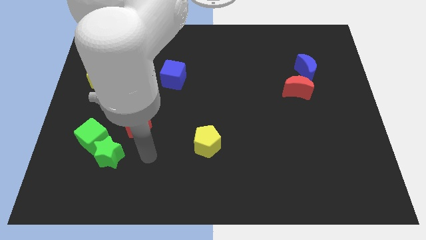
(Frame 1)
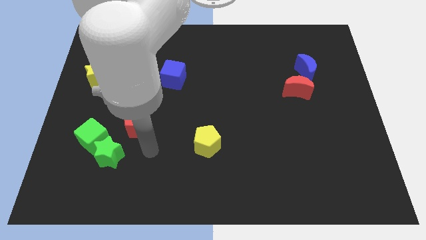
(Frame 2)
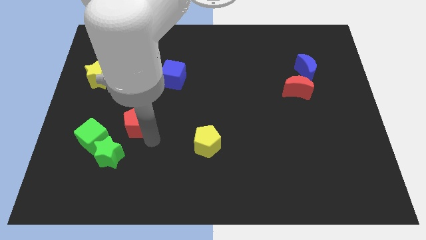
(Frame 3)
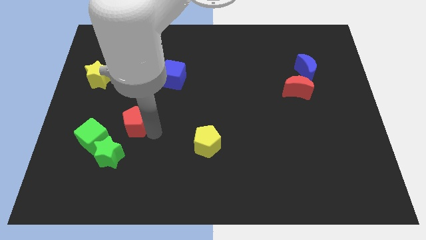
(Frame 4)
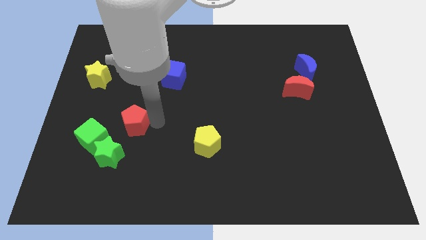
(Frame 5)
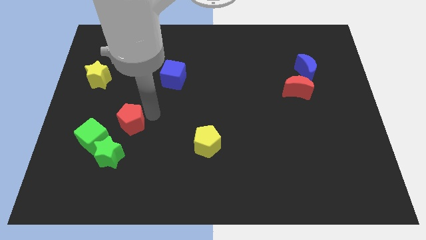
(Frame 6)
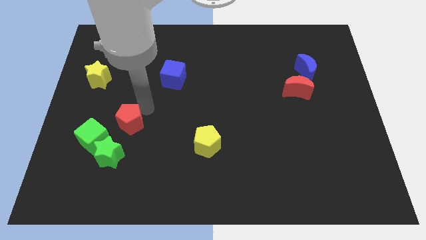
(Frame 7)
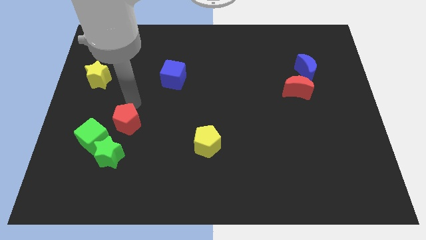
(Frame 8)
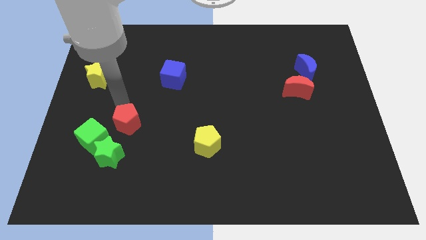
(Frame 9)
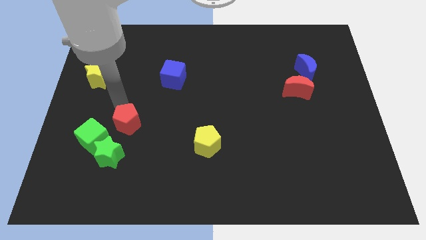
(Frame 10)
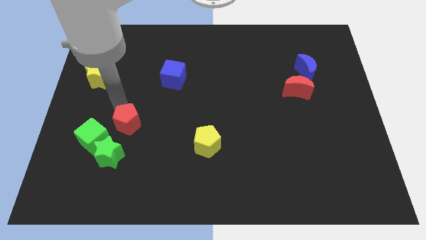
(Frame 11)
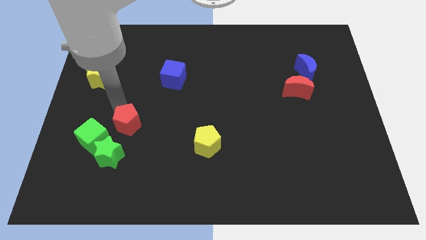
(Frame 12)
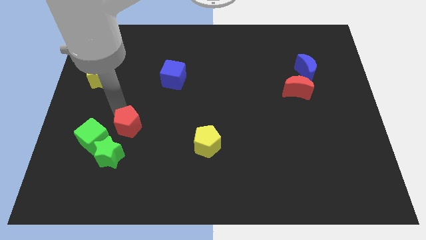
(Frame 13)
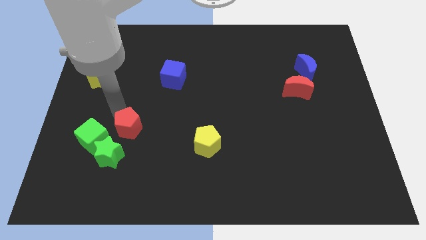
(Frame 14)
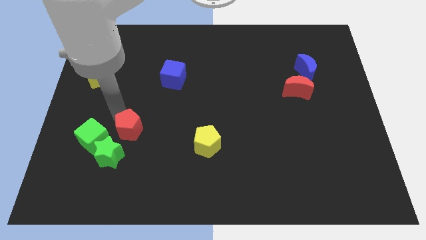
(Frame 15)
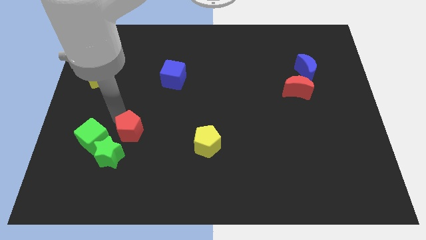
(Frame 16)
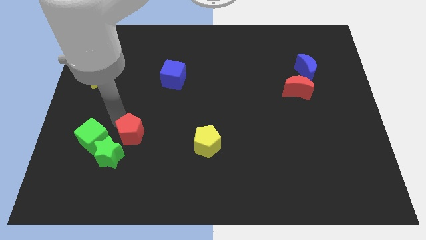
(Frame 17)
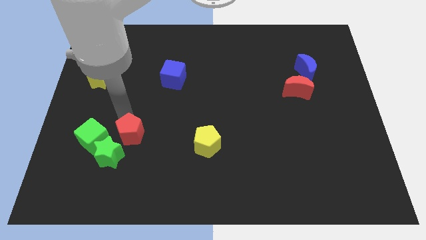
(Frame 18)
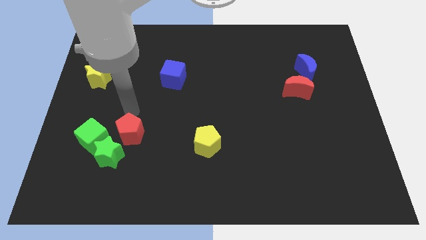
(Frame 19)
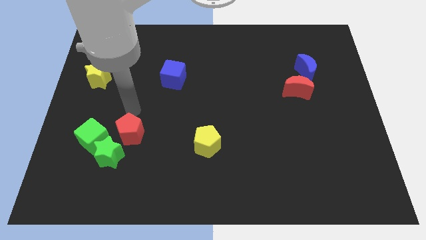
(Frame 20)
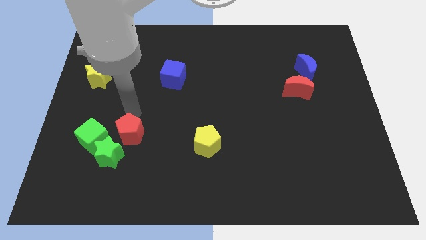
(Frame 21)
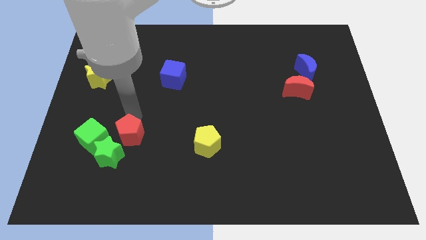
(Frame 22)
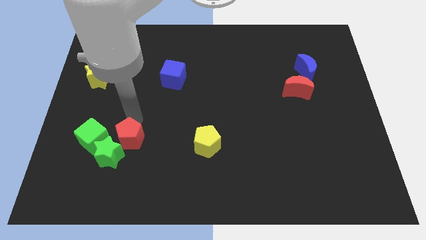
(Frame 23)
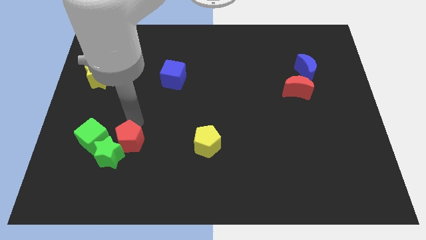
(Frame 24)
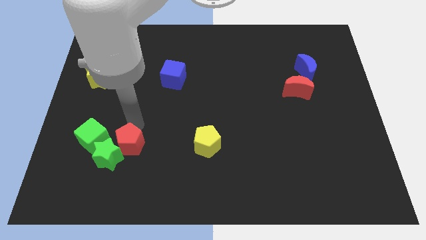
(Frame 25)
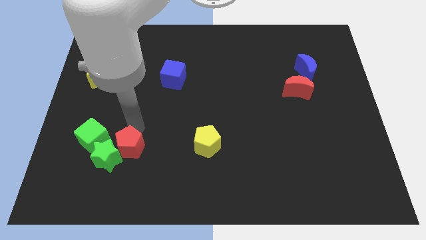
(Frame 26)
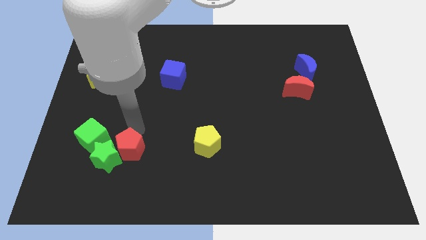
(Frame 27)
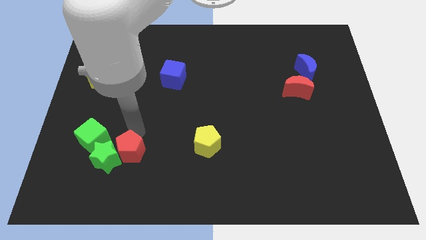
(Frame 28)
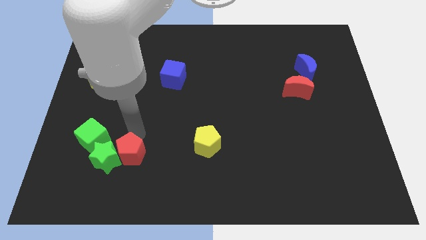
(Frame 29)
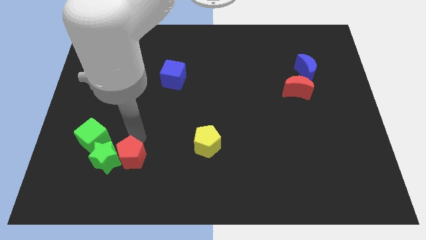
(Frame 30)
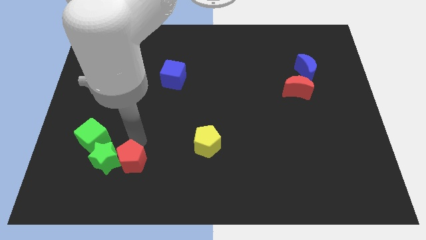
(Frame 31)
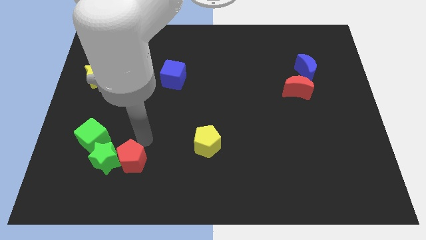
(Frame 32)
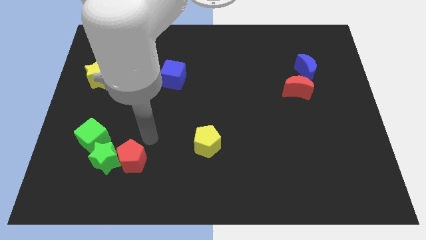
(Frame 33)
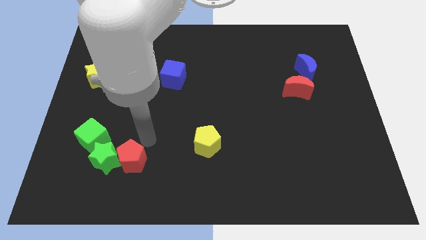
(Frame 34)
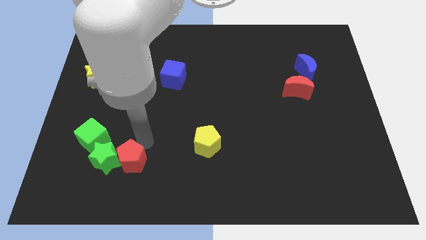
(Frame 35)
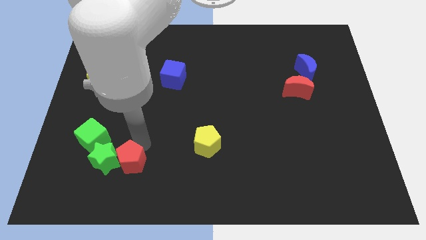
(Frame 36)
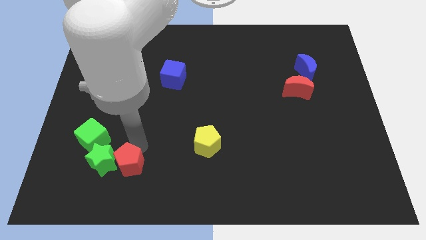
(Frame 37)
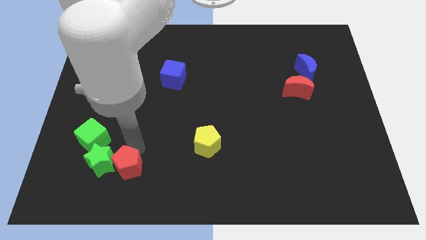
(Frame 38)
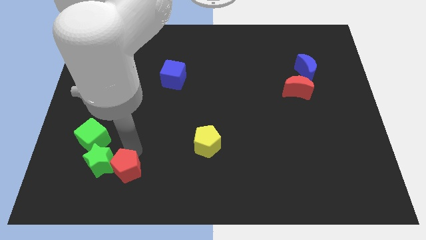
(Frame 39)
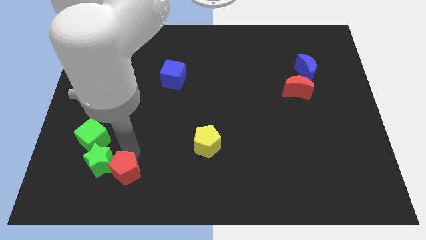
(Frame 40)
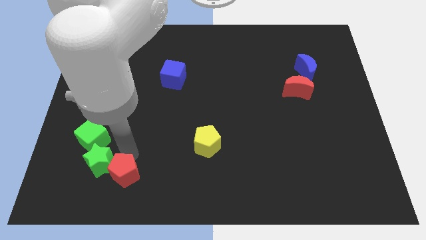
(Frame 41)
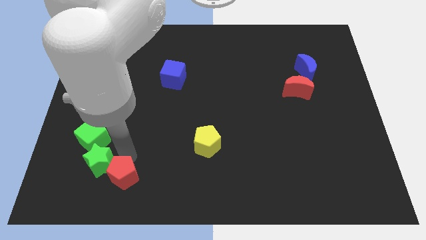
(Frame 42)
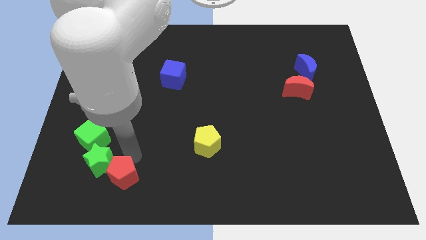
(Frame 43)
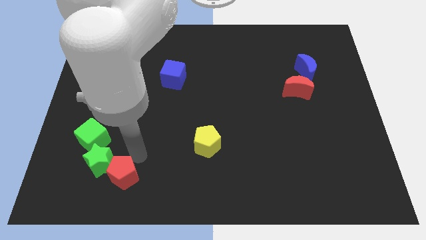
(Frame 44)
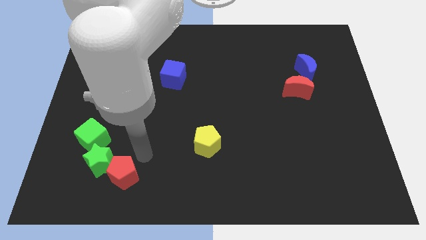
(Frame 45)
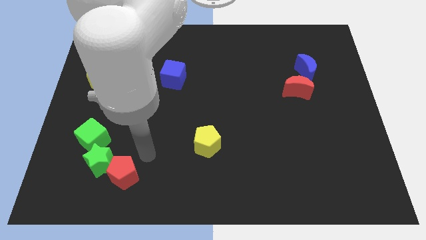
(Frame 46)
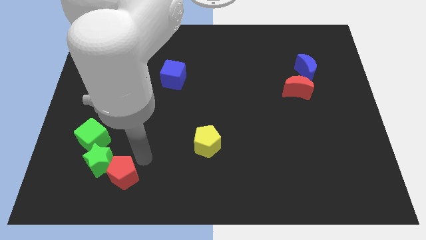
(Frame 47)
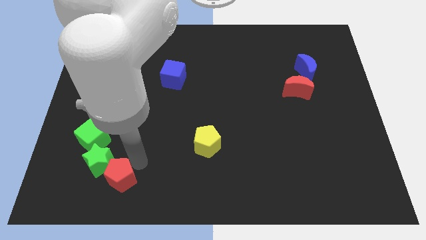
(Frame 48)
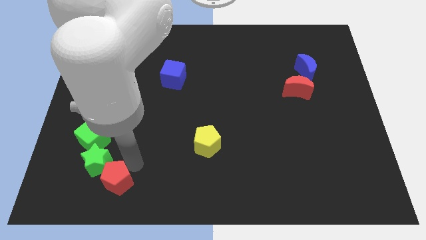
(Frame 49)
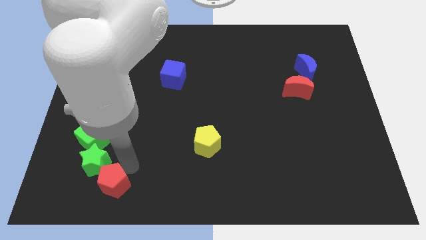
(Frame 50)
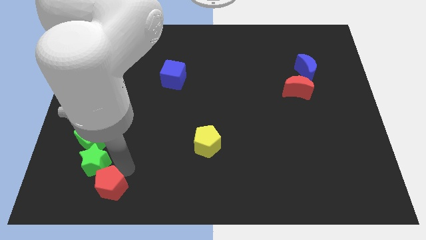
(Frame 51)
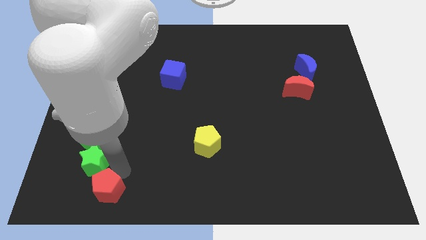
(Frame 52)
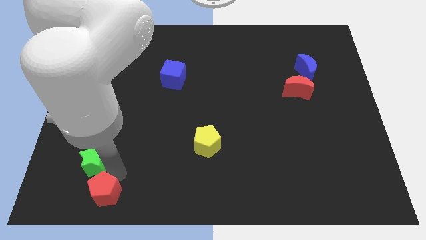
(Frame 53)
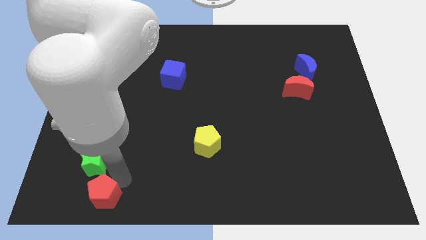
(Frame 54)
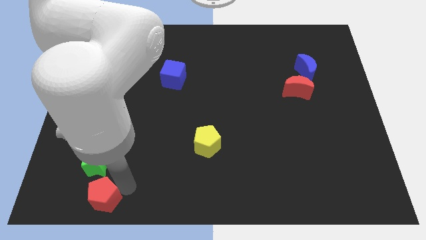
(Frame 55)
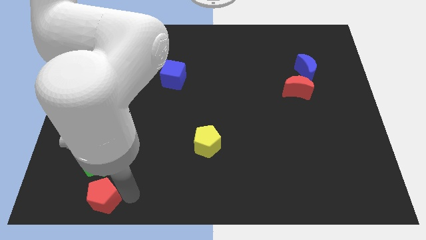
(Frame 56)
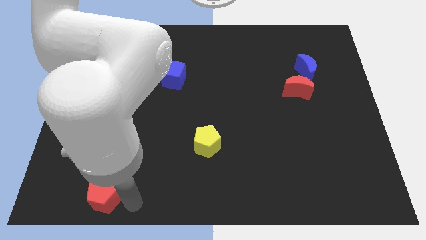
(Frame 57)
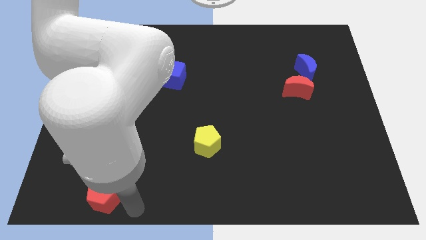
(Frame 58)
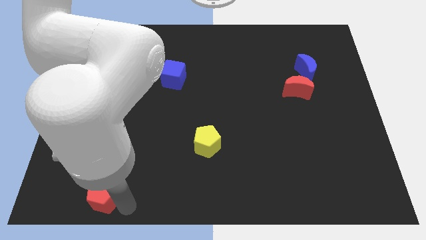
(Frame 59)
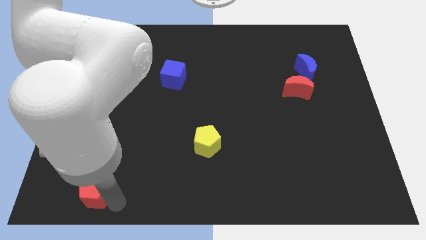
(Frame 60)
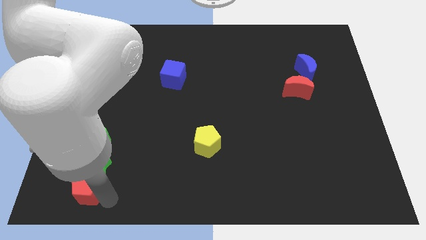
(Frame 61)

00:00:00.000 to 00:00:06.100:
move the red pentagon diagonally down and to the left of the green star

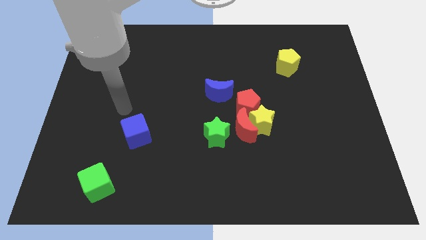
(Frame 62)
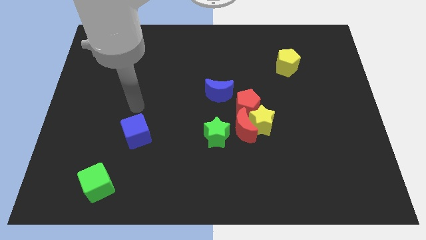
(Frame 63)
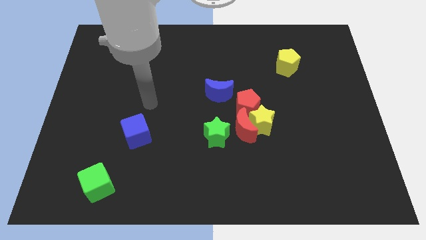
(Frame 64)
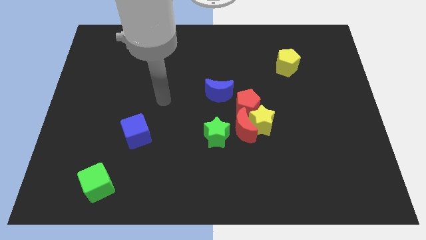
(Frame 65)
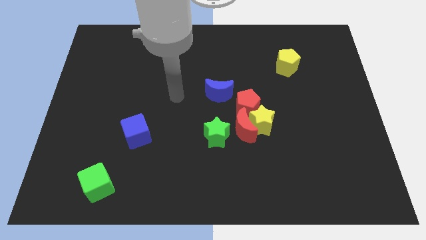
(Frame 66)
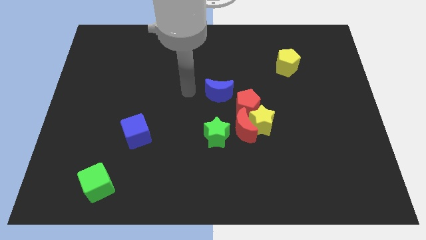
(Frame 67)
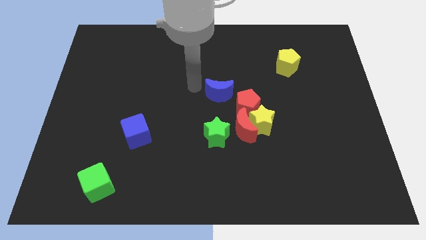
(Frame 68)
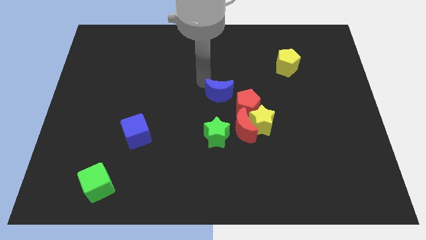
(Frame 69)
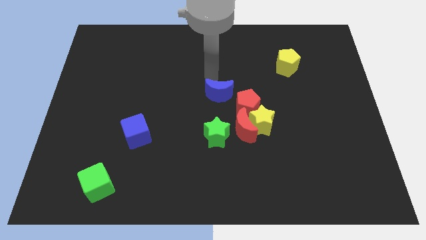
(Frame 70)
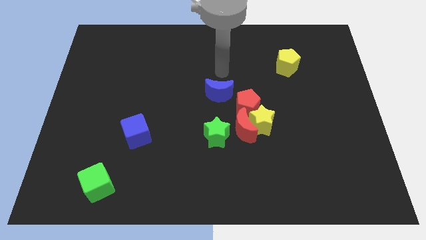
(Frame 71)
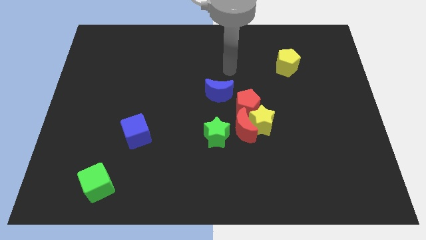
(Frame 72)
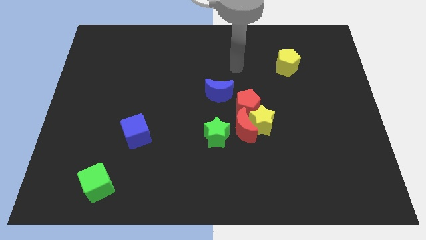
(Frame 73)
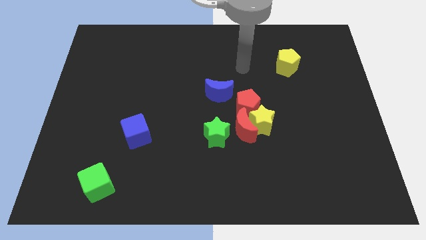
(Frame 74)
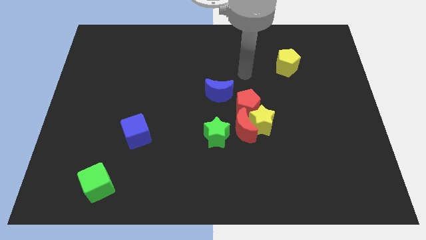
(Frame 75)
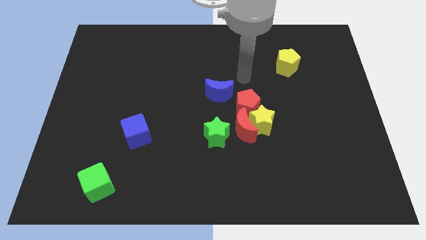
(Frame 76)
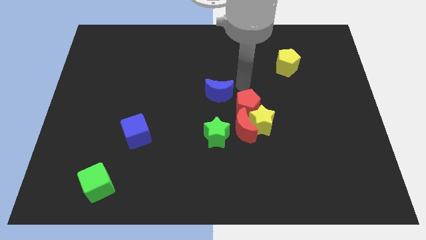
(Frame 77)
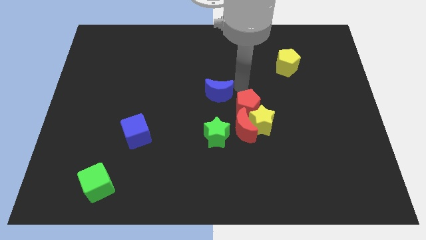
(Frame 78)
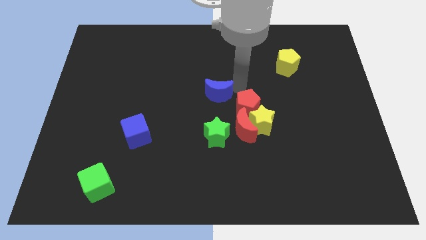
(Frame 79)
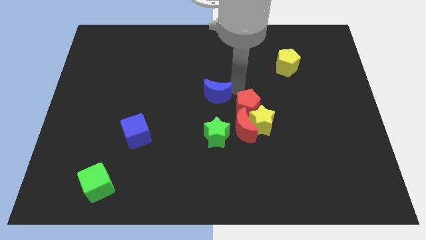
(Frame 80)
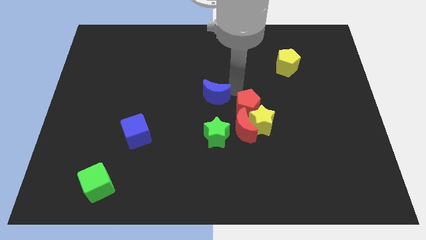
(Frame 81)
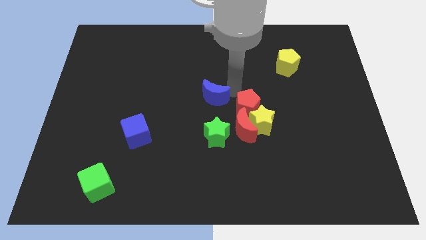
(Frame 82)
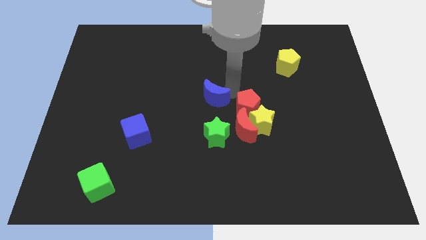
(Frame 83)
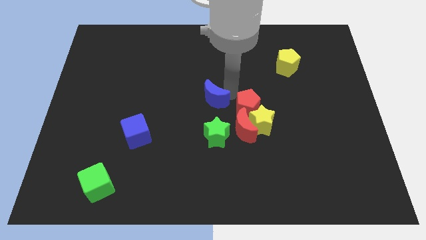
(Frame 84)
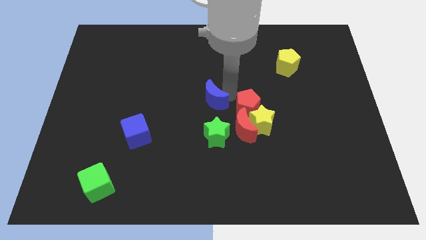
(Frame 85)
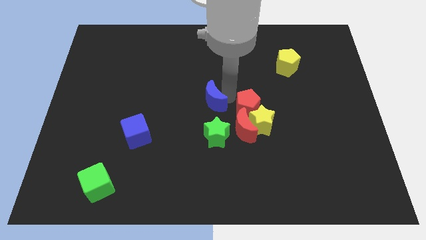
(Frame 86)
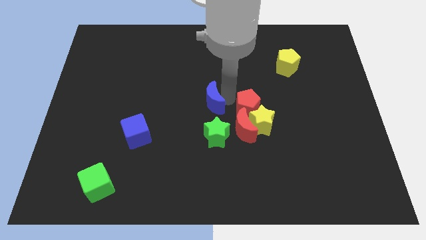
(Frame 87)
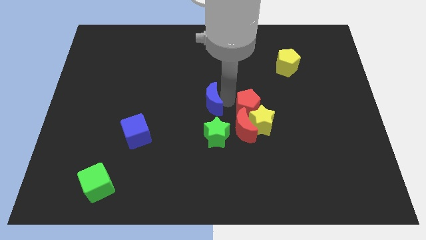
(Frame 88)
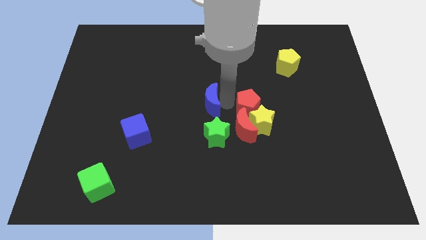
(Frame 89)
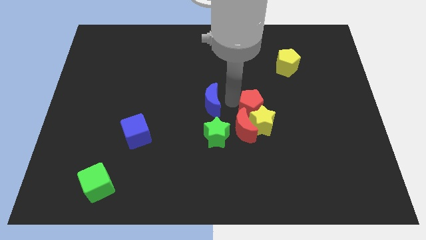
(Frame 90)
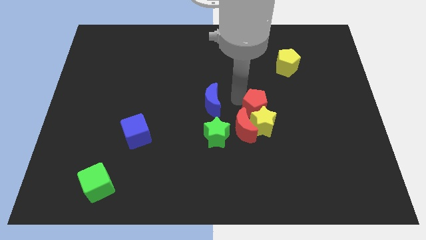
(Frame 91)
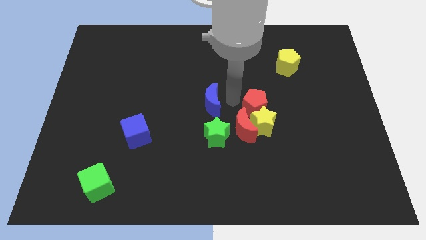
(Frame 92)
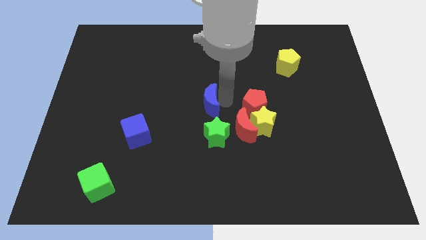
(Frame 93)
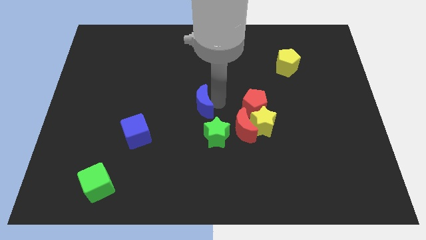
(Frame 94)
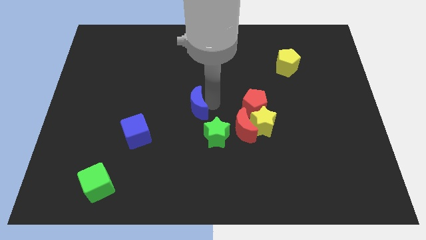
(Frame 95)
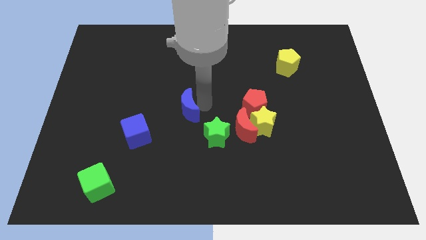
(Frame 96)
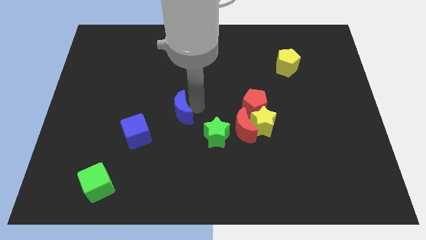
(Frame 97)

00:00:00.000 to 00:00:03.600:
slide the blue moon diagonally up and to the right of the blue cube
